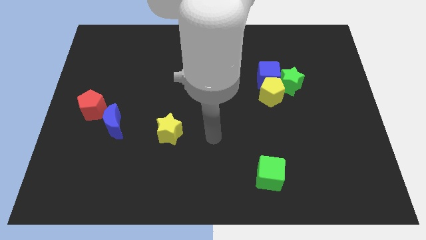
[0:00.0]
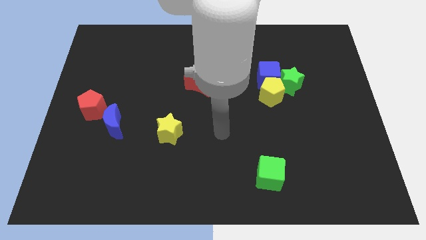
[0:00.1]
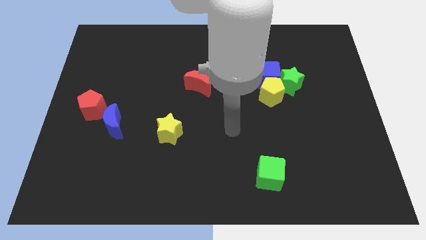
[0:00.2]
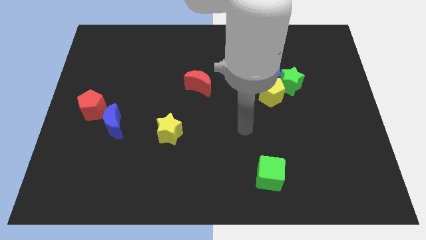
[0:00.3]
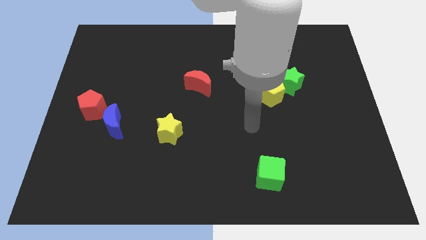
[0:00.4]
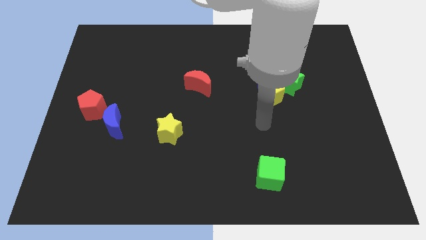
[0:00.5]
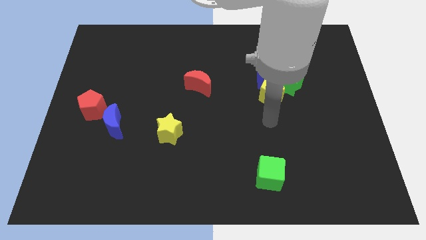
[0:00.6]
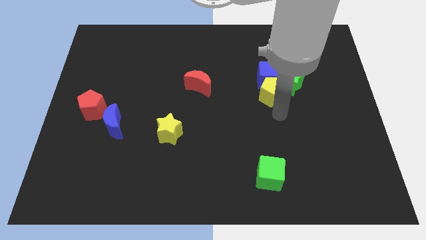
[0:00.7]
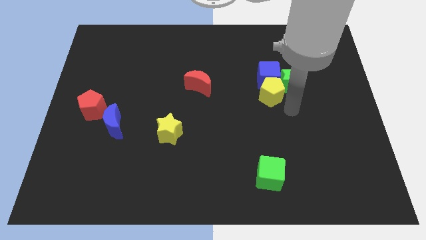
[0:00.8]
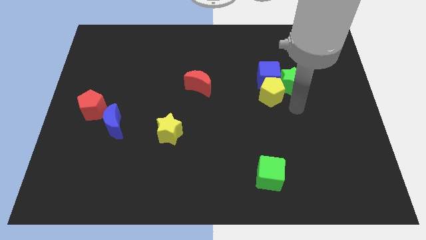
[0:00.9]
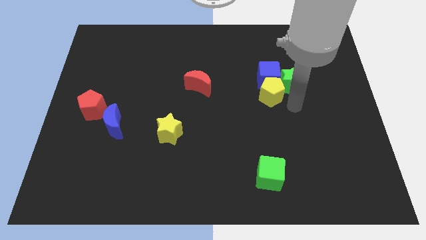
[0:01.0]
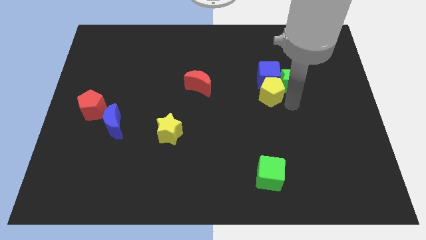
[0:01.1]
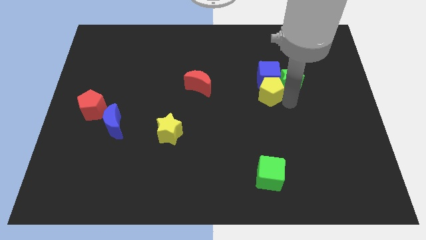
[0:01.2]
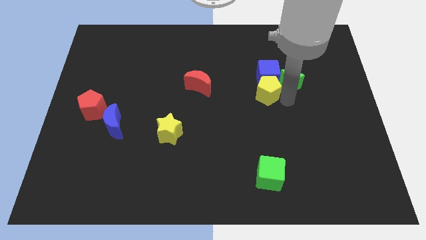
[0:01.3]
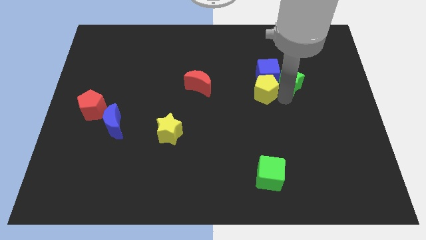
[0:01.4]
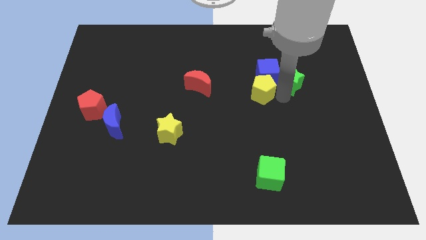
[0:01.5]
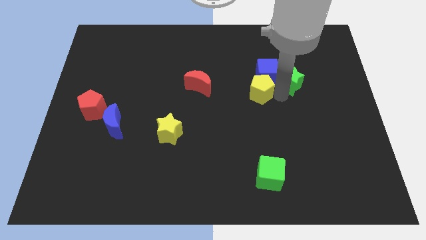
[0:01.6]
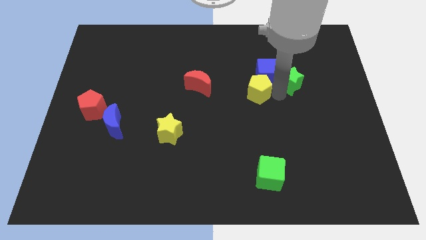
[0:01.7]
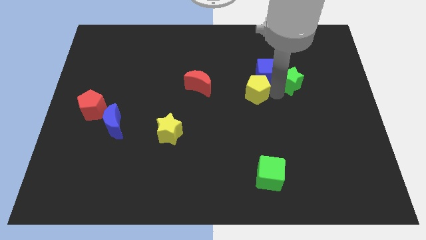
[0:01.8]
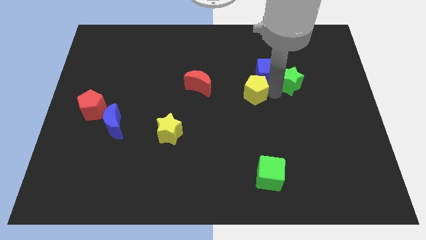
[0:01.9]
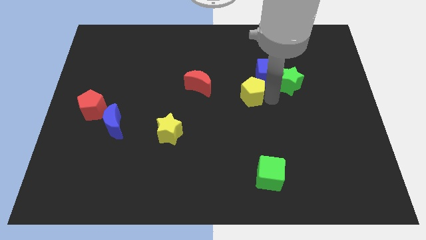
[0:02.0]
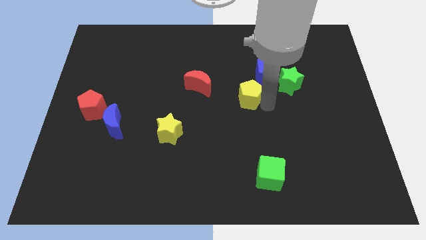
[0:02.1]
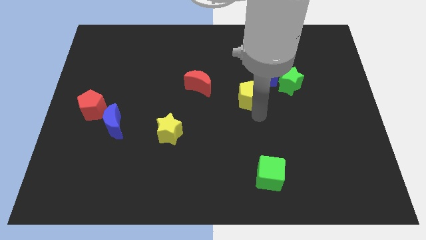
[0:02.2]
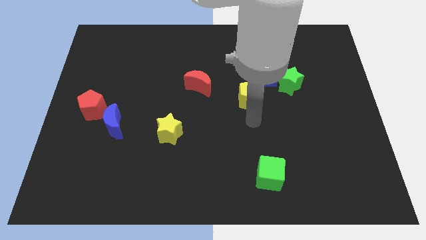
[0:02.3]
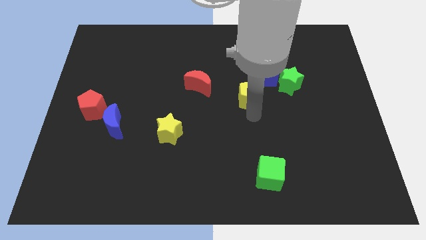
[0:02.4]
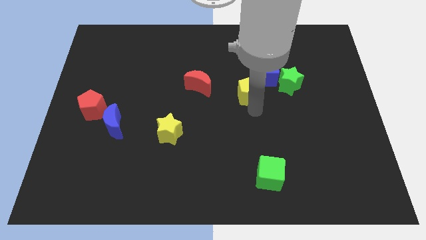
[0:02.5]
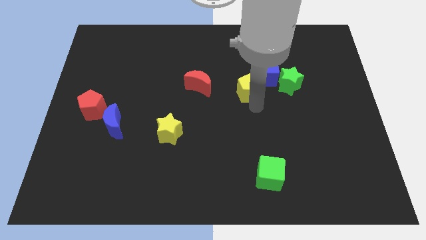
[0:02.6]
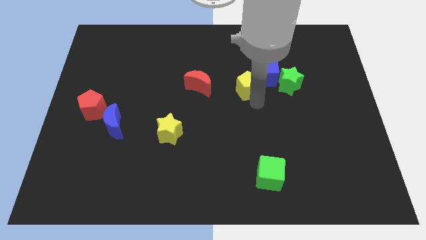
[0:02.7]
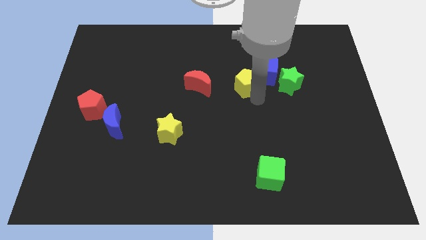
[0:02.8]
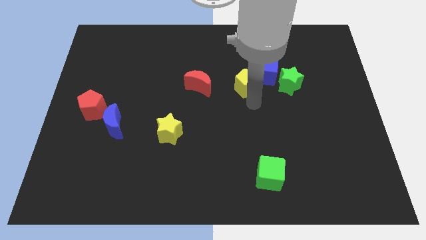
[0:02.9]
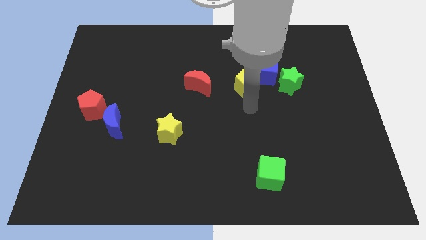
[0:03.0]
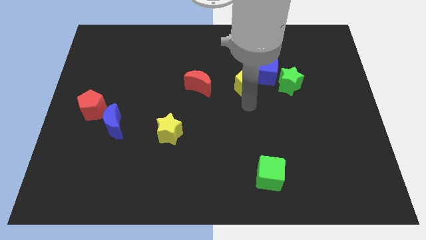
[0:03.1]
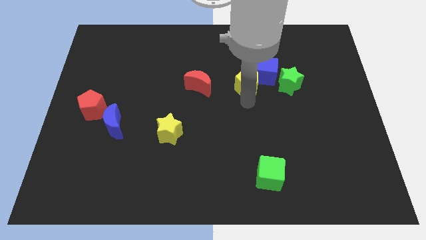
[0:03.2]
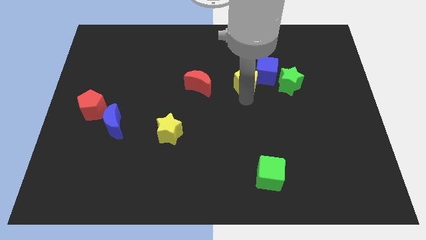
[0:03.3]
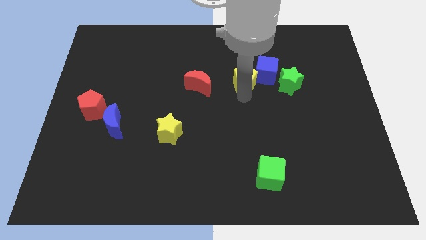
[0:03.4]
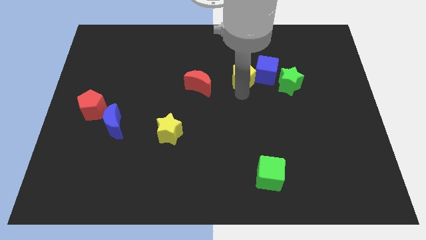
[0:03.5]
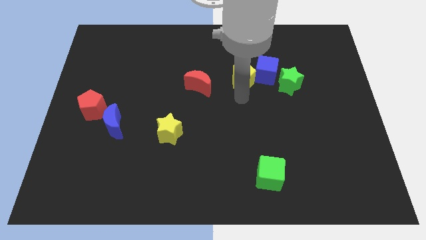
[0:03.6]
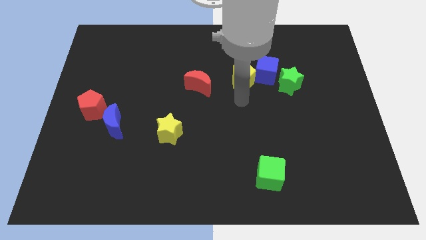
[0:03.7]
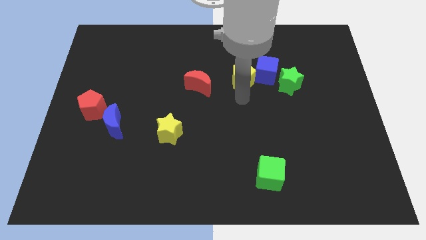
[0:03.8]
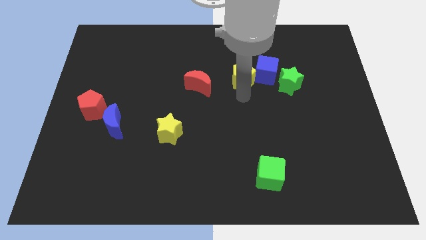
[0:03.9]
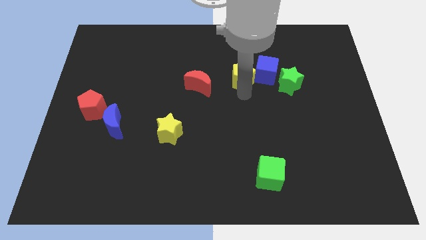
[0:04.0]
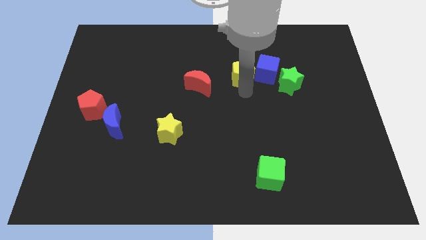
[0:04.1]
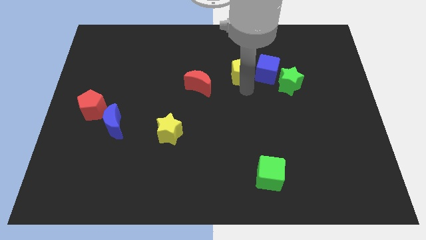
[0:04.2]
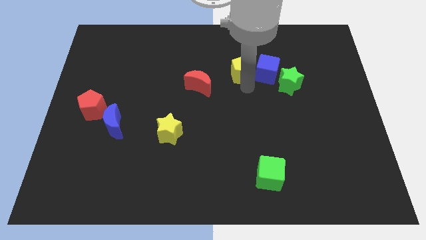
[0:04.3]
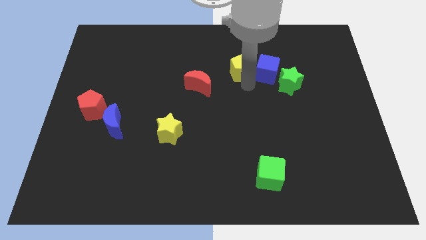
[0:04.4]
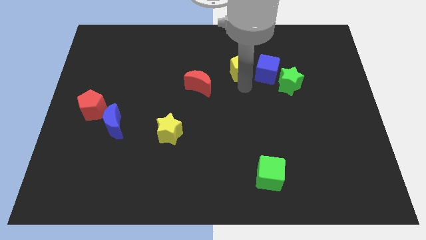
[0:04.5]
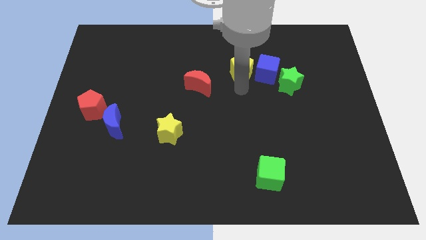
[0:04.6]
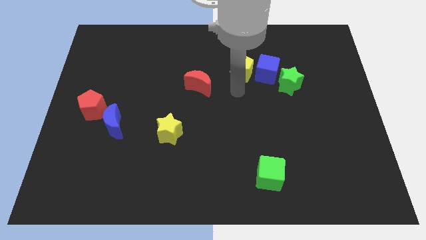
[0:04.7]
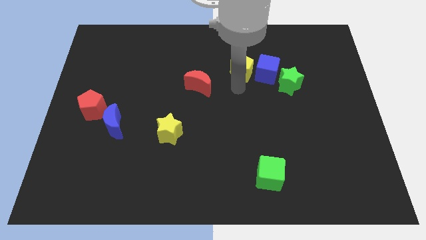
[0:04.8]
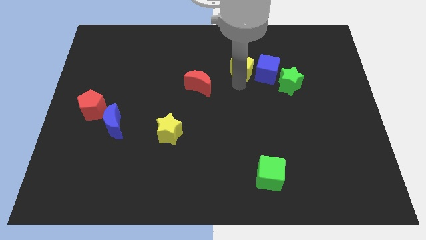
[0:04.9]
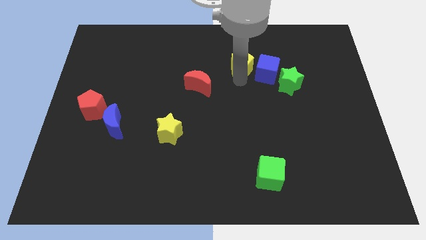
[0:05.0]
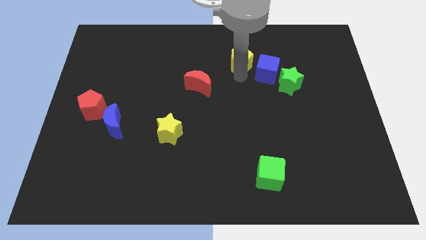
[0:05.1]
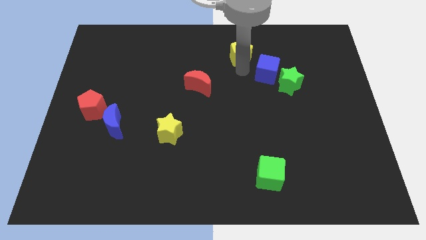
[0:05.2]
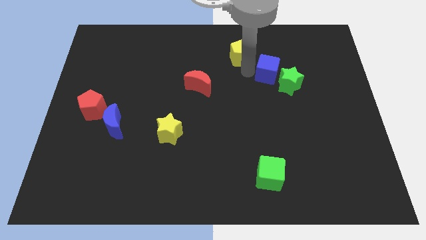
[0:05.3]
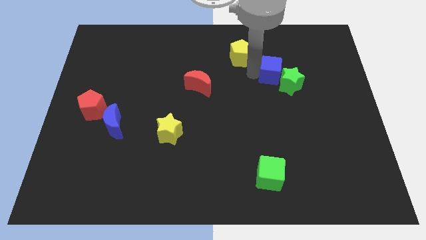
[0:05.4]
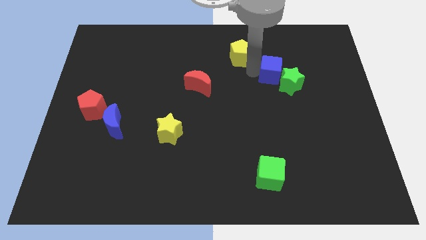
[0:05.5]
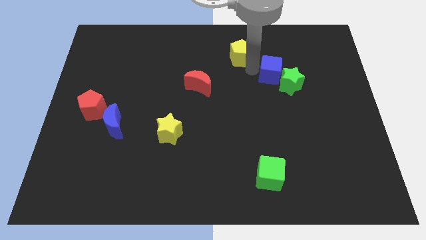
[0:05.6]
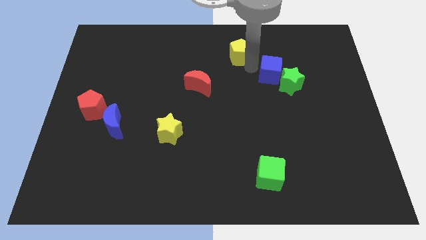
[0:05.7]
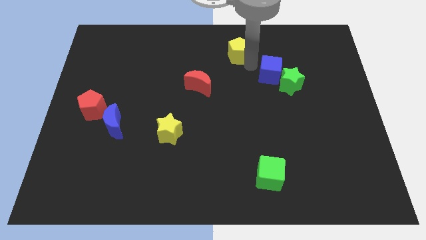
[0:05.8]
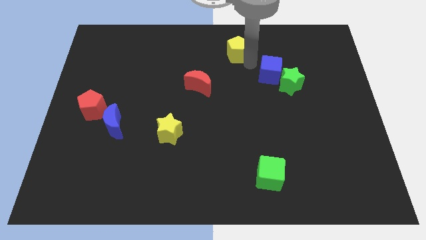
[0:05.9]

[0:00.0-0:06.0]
move the yellow pentagon to the towards your base
